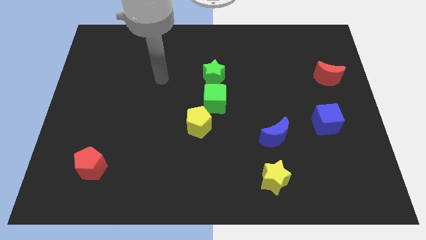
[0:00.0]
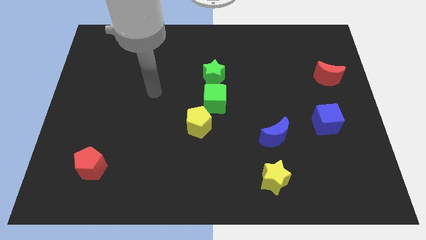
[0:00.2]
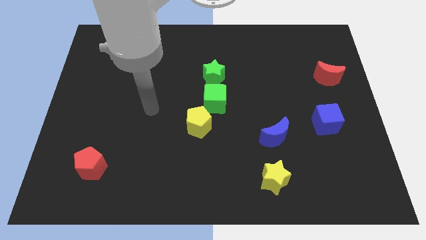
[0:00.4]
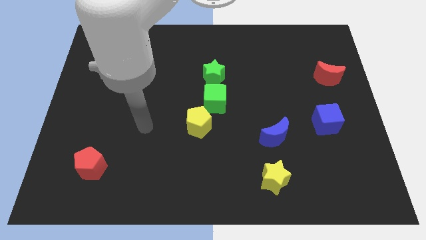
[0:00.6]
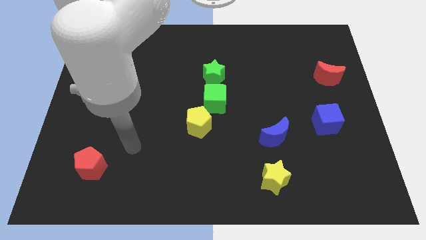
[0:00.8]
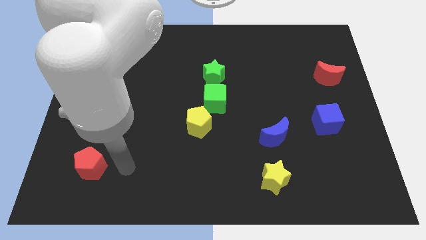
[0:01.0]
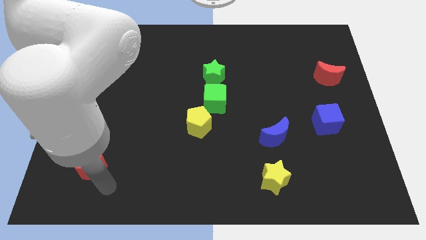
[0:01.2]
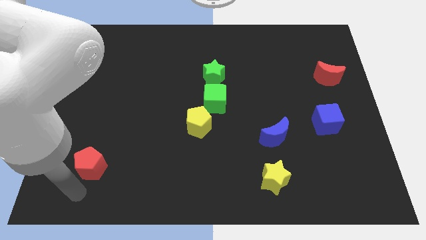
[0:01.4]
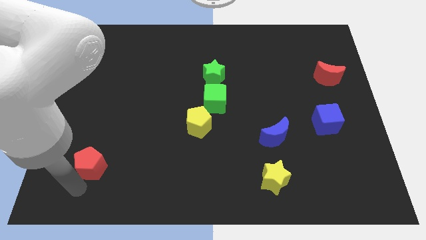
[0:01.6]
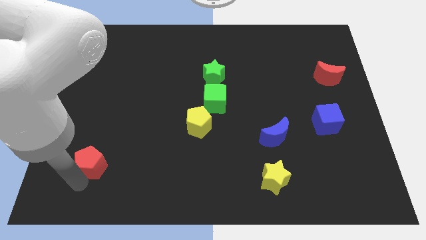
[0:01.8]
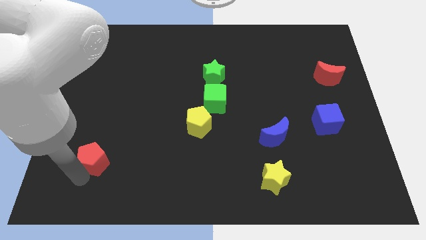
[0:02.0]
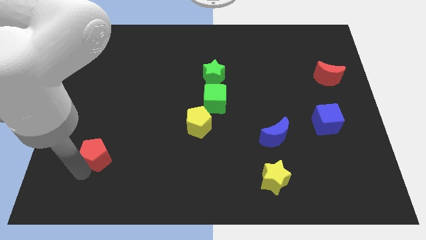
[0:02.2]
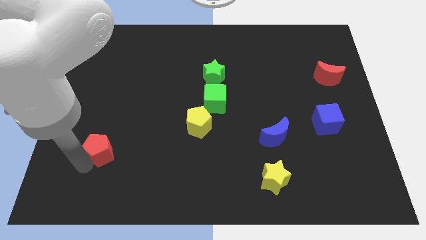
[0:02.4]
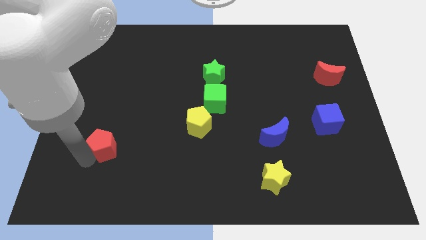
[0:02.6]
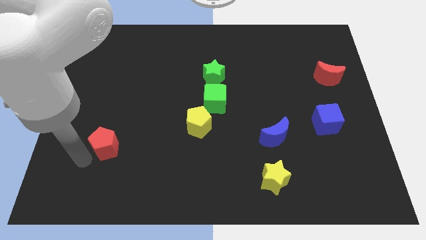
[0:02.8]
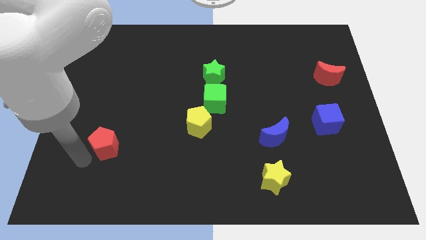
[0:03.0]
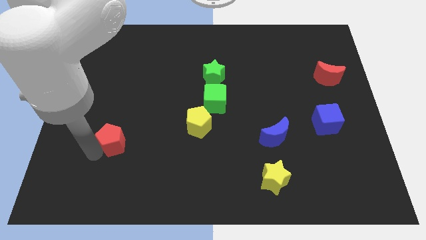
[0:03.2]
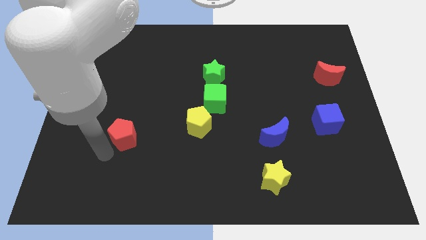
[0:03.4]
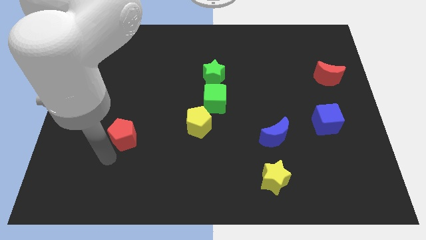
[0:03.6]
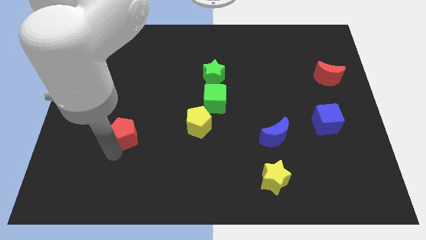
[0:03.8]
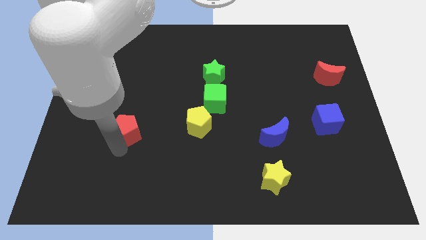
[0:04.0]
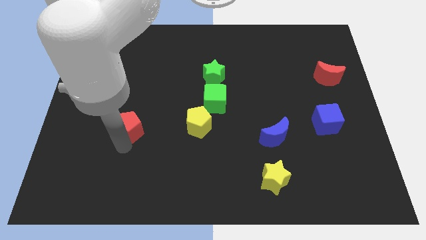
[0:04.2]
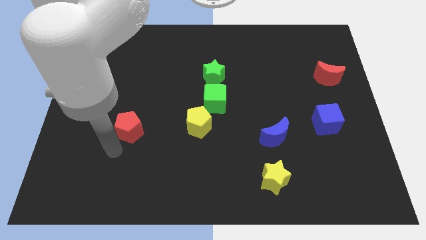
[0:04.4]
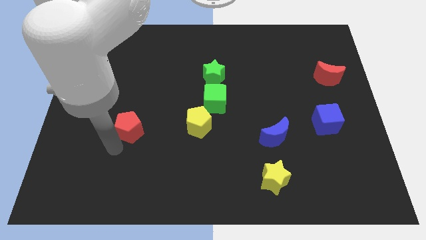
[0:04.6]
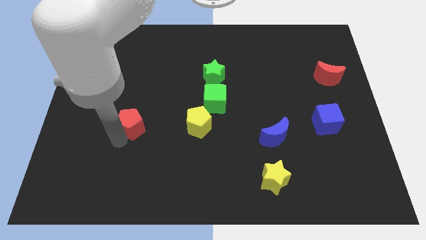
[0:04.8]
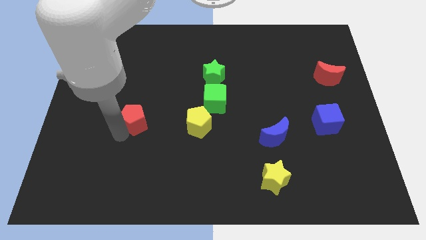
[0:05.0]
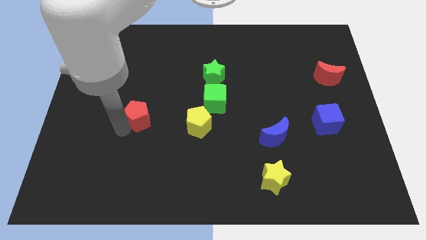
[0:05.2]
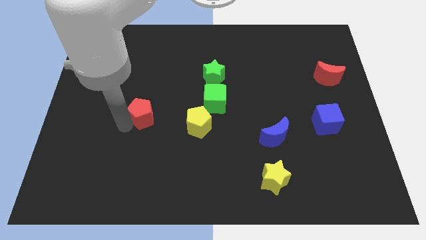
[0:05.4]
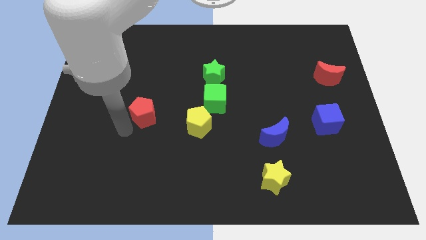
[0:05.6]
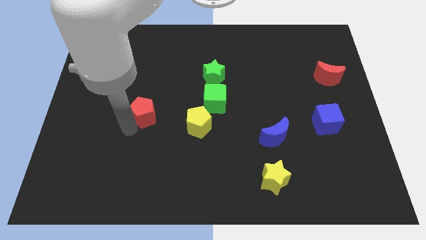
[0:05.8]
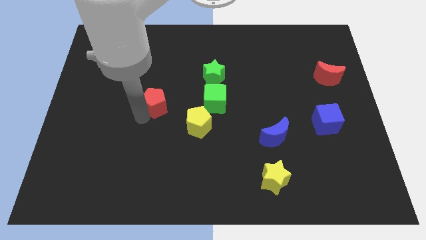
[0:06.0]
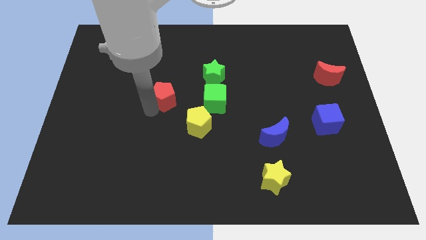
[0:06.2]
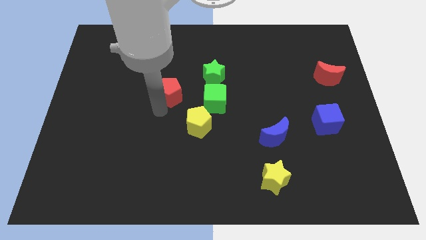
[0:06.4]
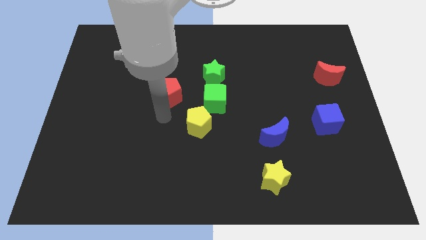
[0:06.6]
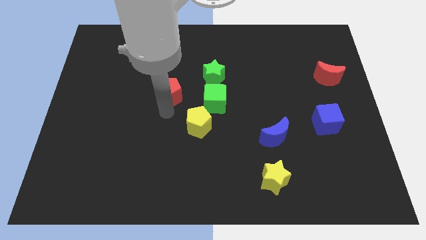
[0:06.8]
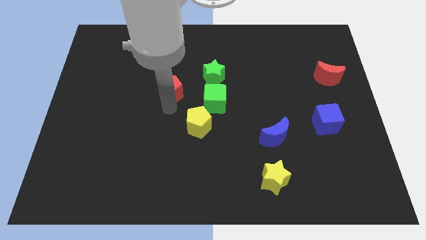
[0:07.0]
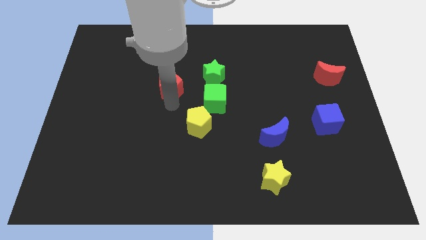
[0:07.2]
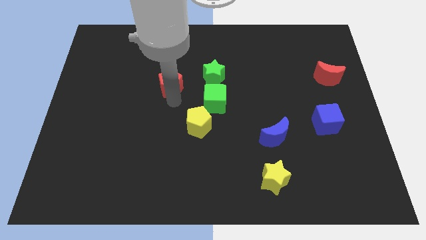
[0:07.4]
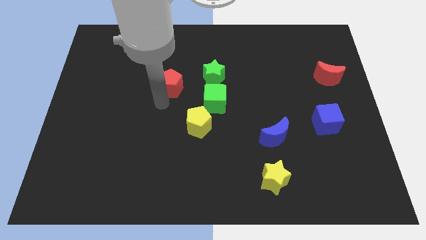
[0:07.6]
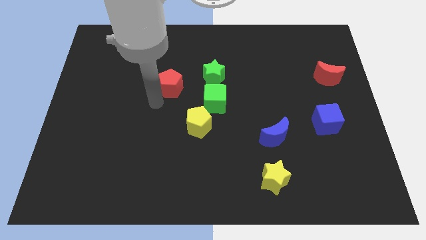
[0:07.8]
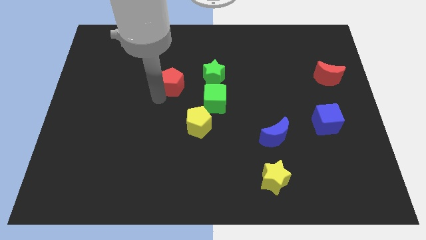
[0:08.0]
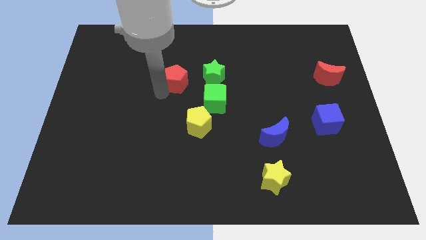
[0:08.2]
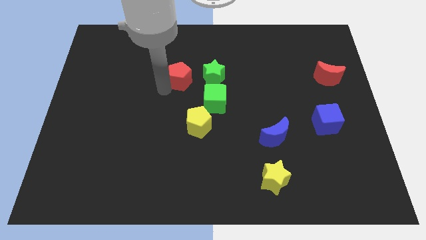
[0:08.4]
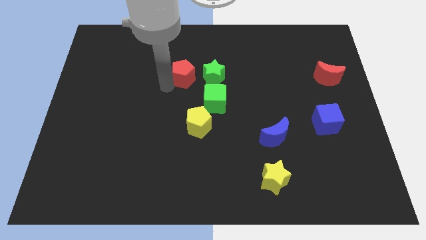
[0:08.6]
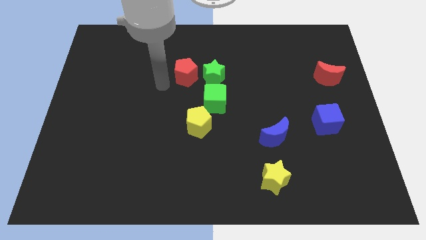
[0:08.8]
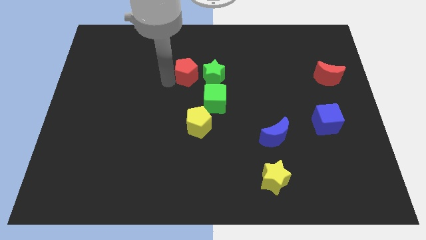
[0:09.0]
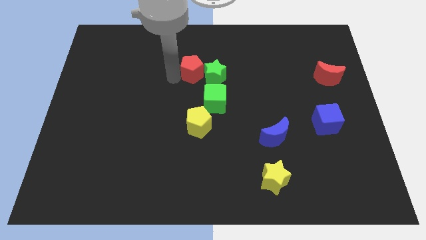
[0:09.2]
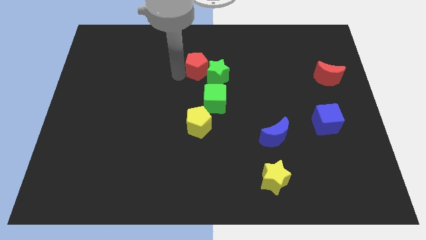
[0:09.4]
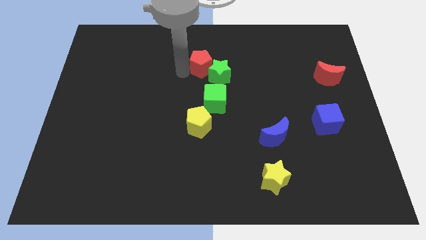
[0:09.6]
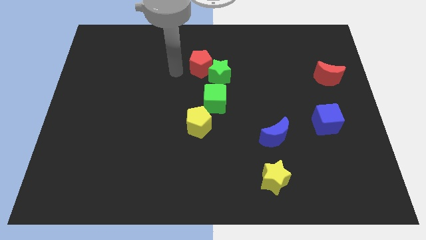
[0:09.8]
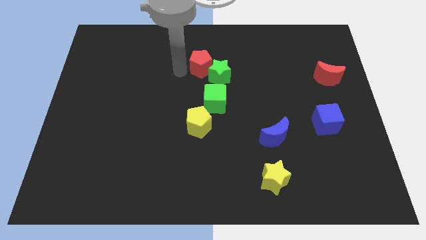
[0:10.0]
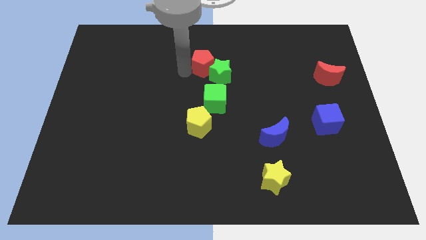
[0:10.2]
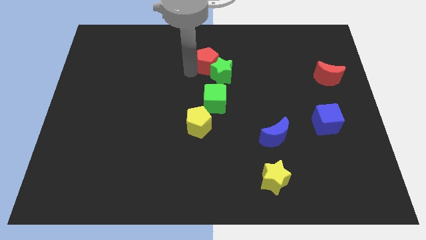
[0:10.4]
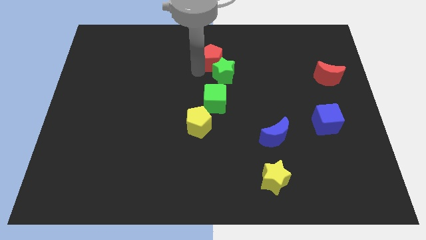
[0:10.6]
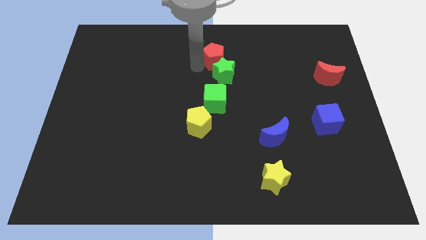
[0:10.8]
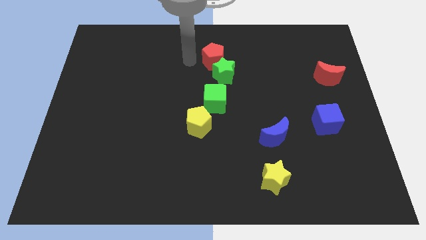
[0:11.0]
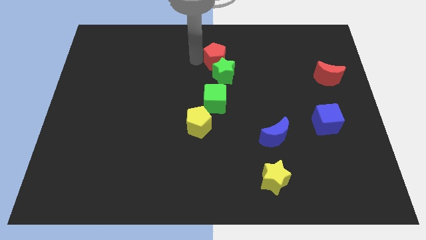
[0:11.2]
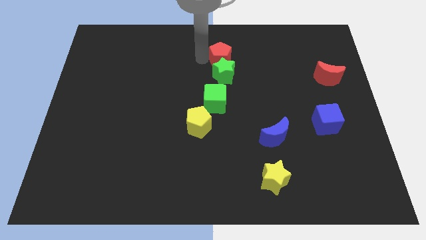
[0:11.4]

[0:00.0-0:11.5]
push the red pentagon to the top right side of the green star

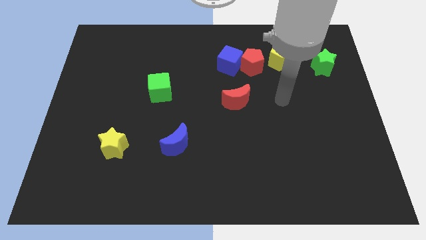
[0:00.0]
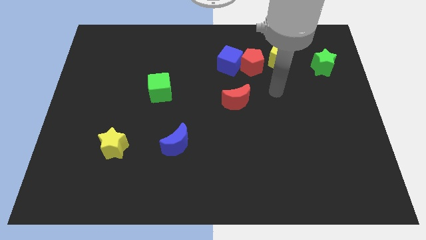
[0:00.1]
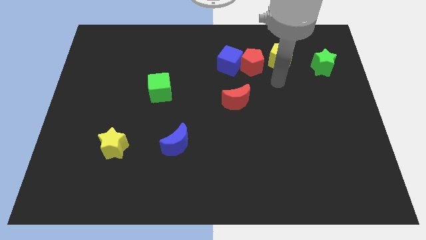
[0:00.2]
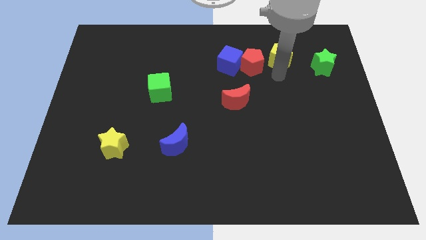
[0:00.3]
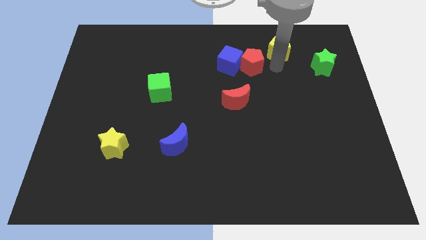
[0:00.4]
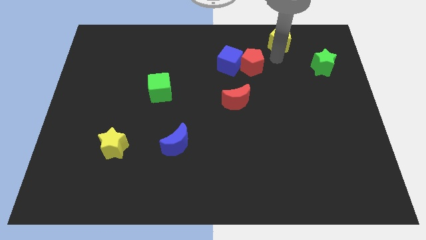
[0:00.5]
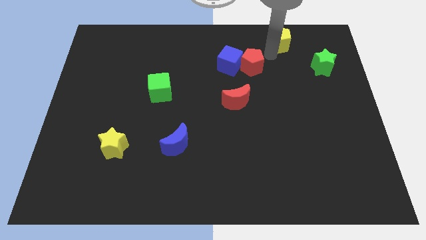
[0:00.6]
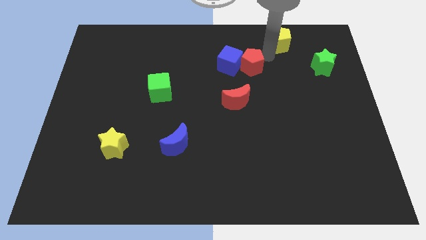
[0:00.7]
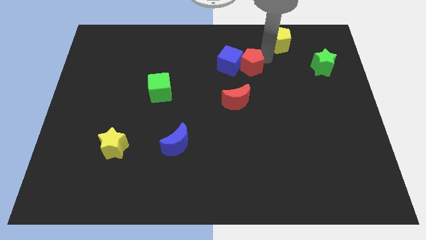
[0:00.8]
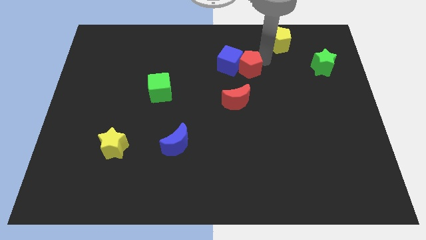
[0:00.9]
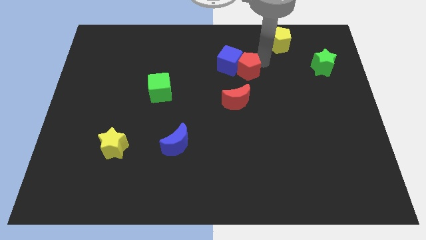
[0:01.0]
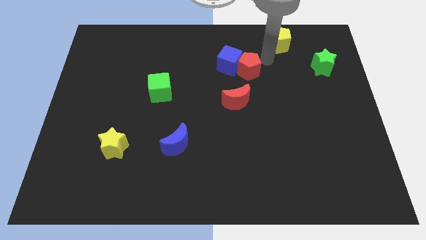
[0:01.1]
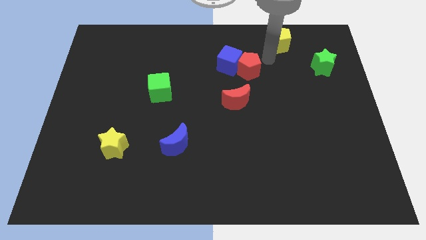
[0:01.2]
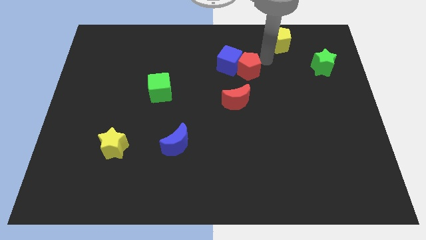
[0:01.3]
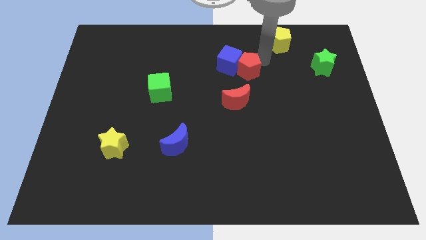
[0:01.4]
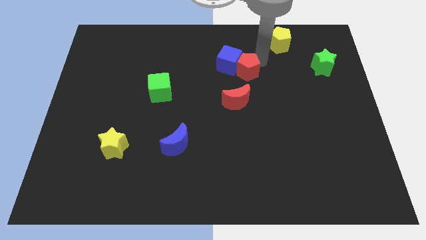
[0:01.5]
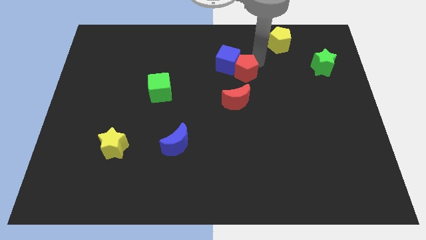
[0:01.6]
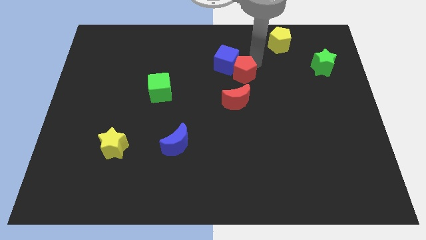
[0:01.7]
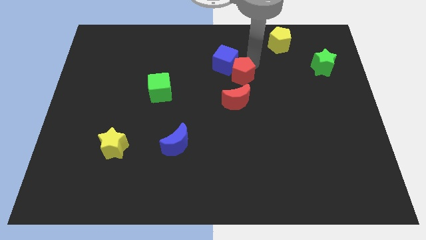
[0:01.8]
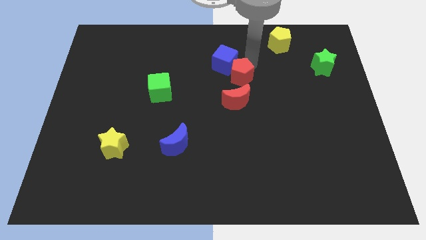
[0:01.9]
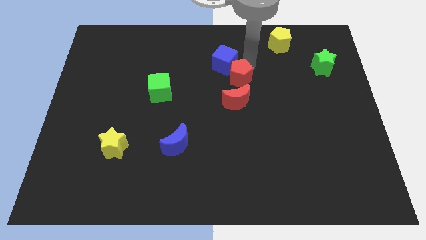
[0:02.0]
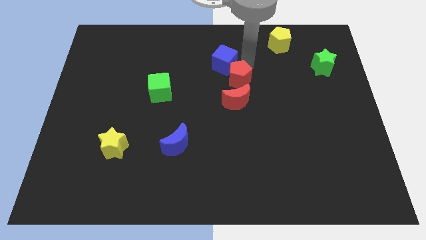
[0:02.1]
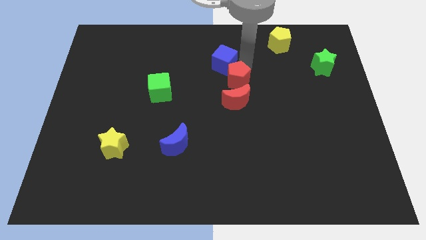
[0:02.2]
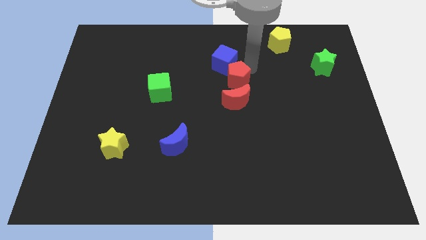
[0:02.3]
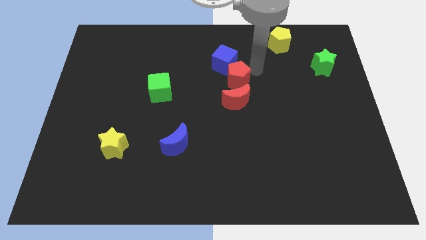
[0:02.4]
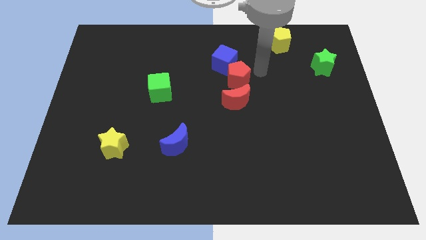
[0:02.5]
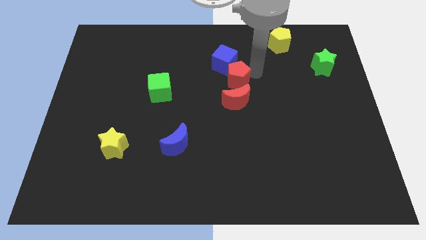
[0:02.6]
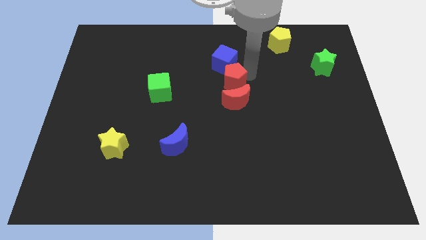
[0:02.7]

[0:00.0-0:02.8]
slide the red pentagon to the top left side of the red moon

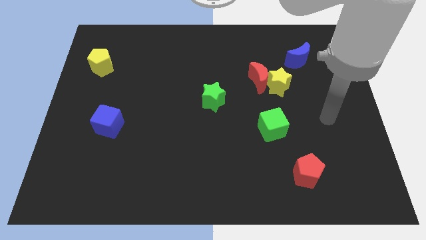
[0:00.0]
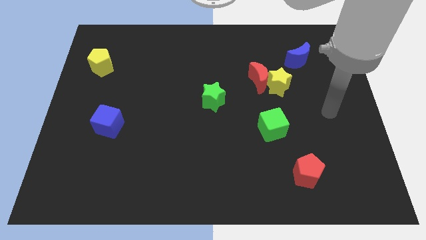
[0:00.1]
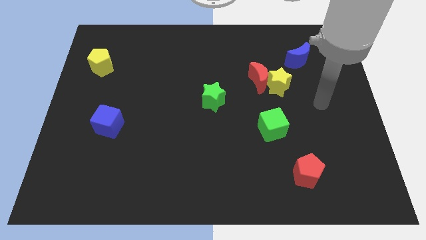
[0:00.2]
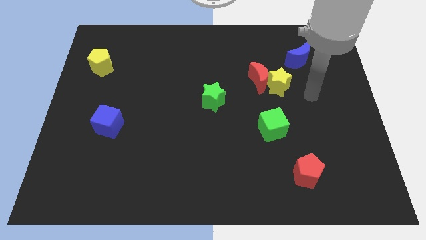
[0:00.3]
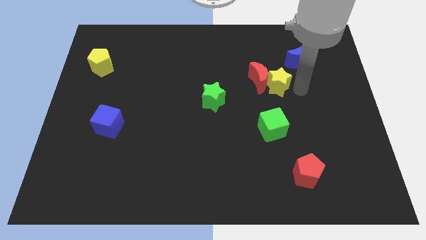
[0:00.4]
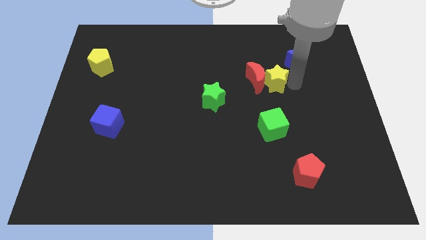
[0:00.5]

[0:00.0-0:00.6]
slide the red moon to the top right side of the green star
